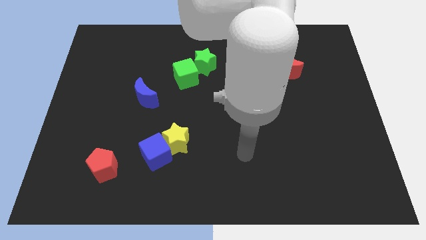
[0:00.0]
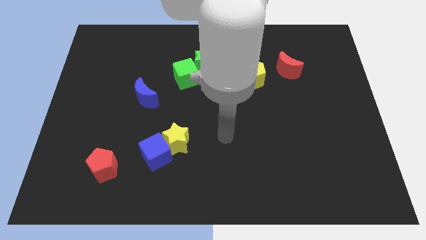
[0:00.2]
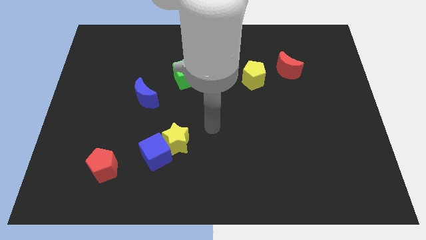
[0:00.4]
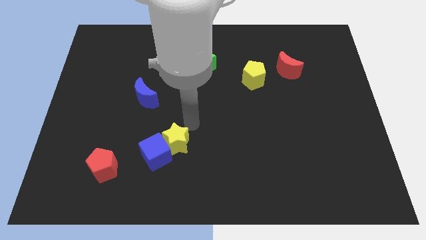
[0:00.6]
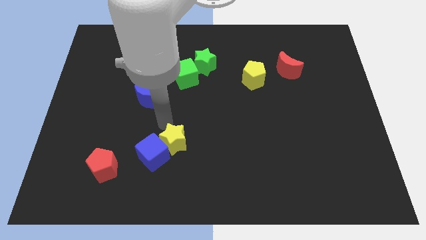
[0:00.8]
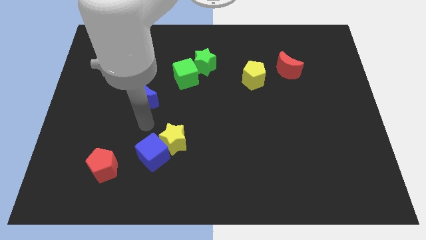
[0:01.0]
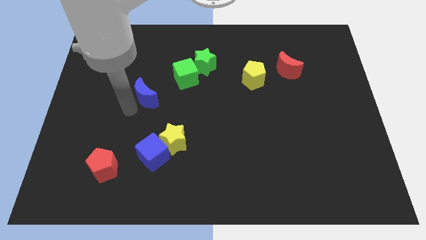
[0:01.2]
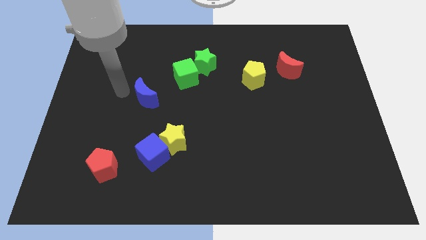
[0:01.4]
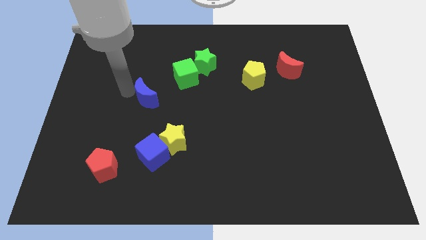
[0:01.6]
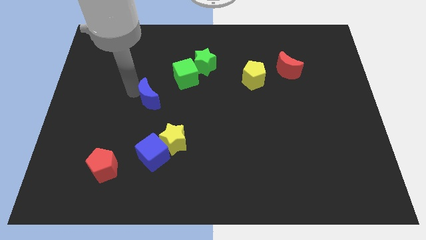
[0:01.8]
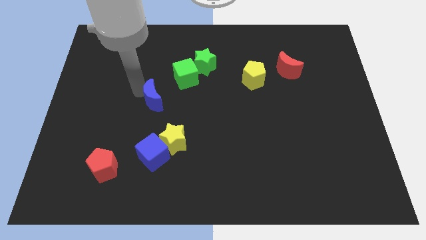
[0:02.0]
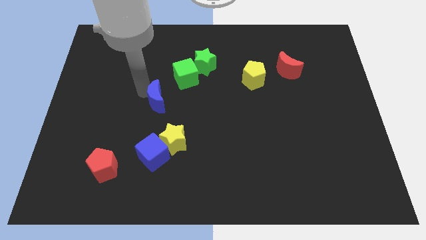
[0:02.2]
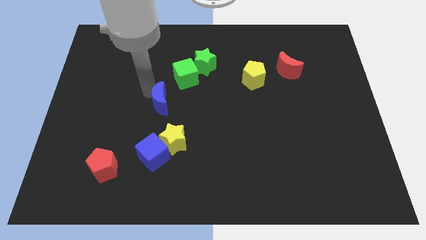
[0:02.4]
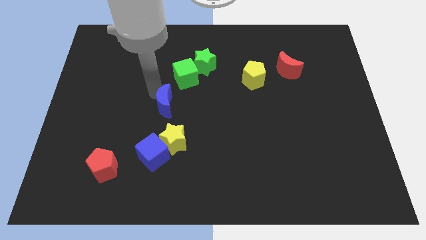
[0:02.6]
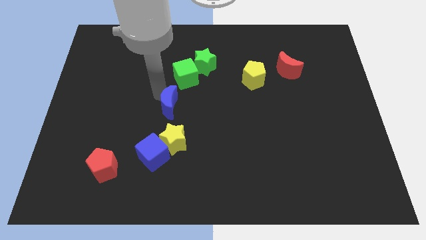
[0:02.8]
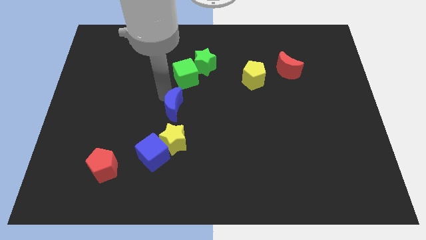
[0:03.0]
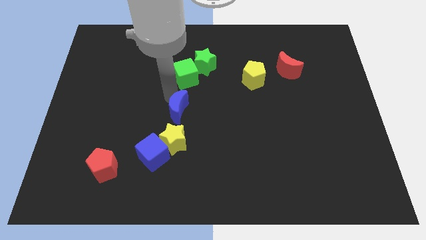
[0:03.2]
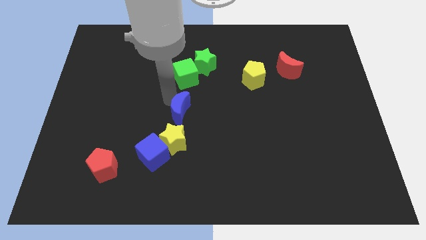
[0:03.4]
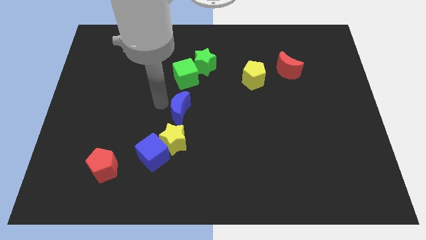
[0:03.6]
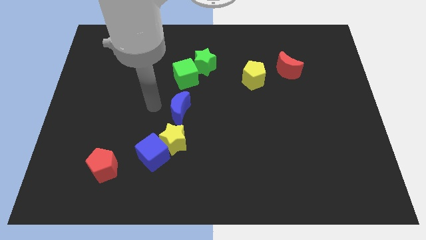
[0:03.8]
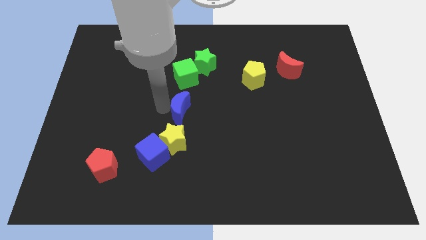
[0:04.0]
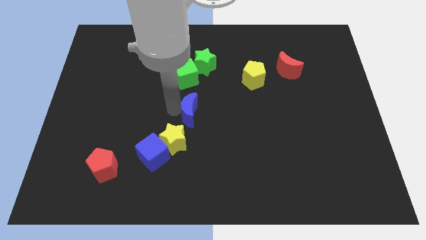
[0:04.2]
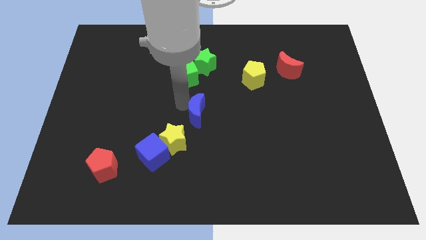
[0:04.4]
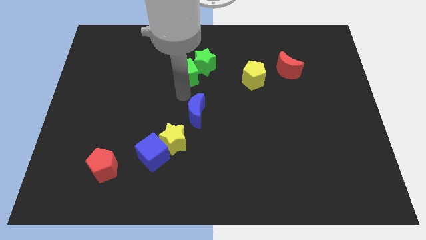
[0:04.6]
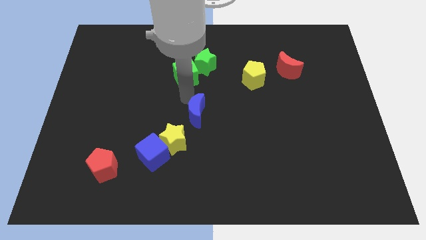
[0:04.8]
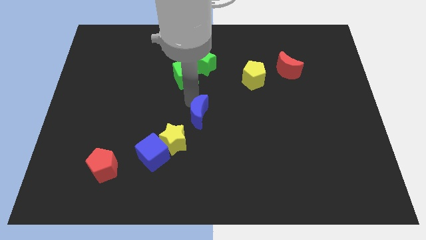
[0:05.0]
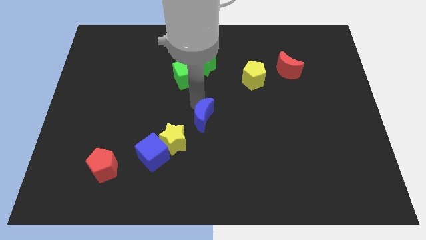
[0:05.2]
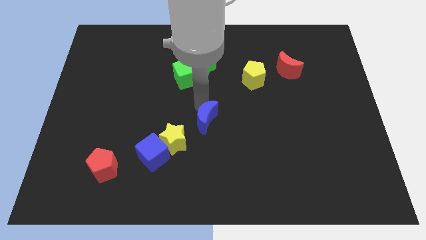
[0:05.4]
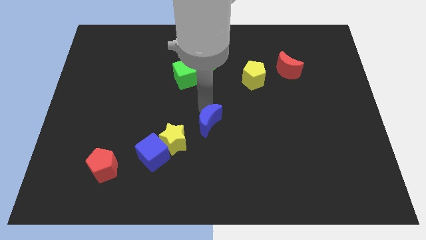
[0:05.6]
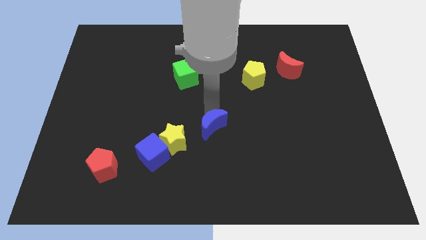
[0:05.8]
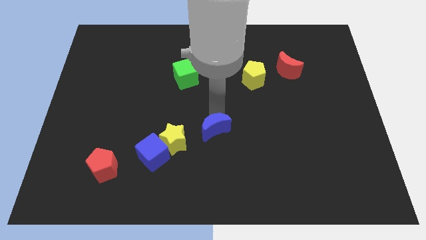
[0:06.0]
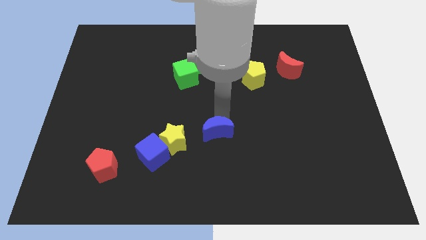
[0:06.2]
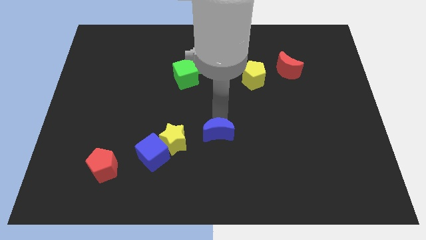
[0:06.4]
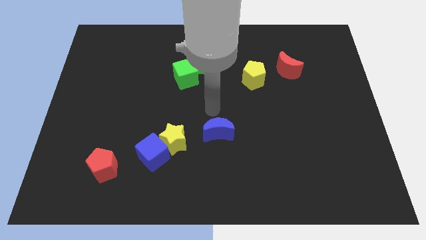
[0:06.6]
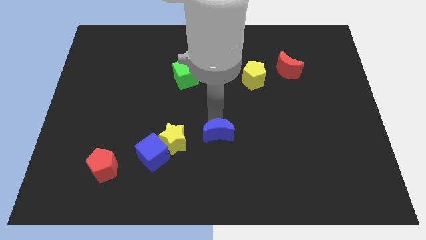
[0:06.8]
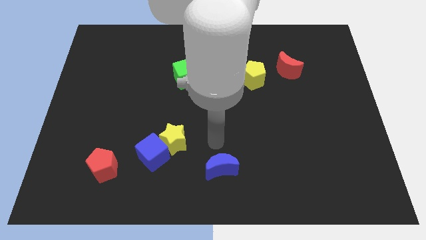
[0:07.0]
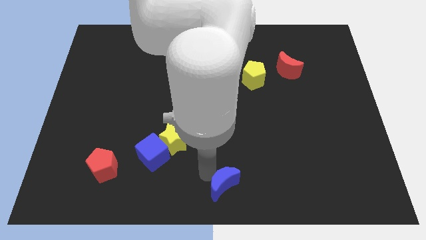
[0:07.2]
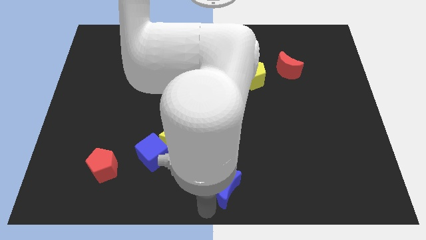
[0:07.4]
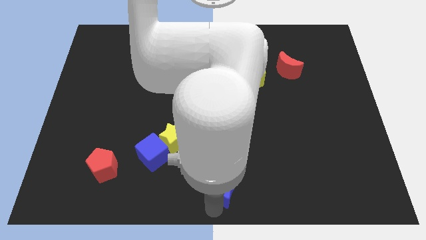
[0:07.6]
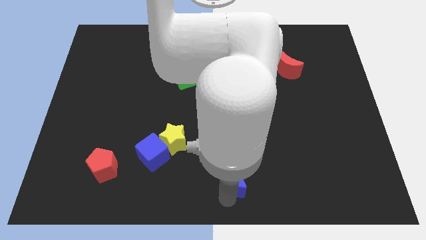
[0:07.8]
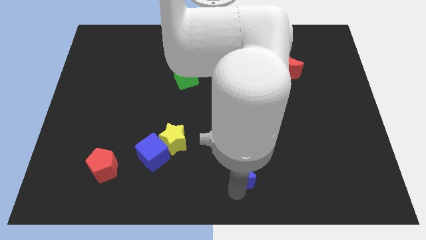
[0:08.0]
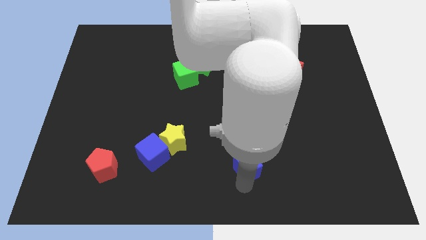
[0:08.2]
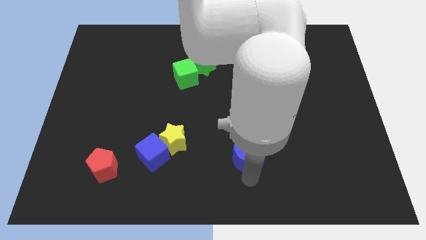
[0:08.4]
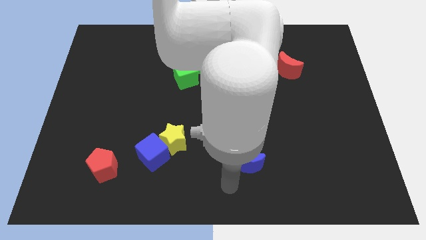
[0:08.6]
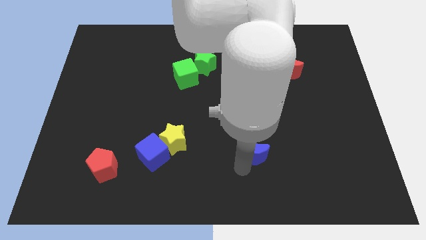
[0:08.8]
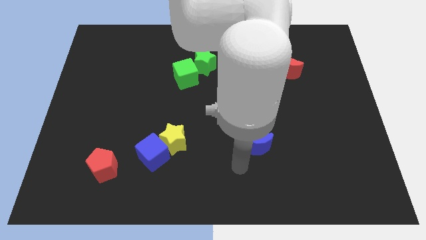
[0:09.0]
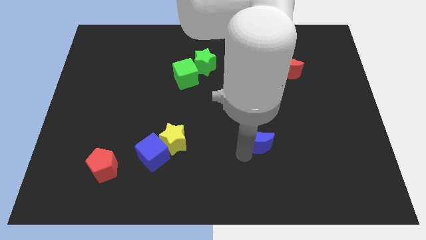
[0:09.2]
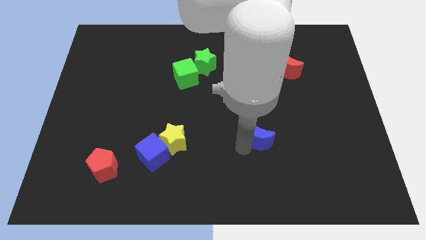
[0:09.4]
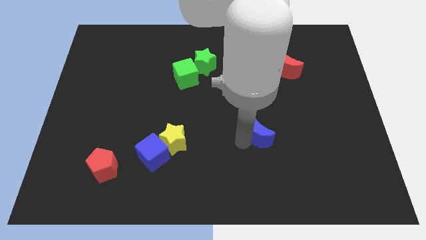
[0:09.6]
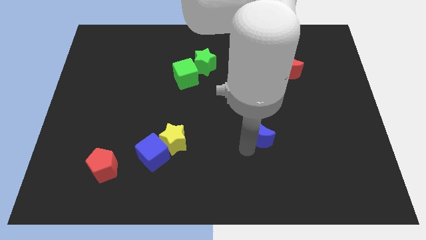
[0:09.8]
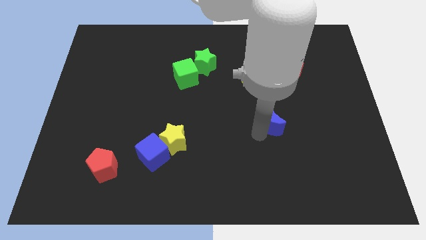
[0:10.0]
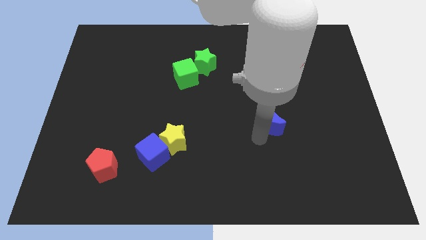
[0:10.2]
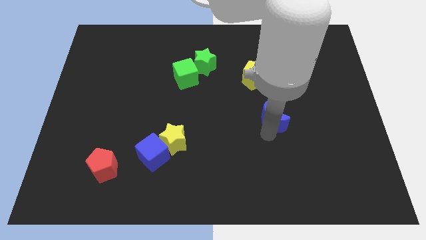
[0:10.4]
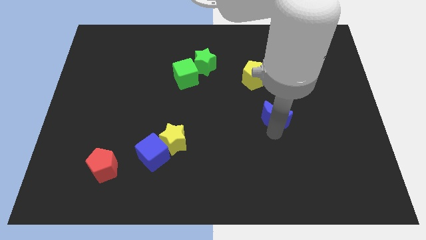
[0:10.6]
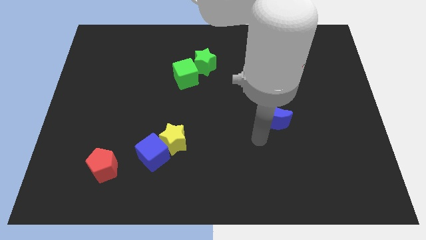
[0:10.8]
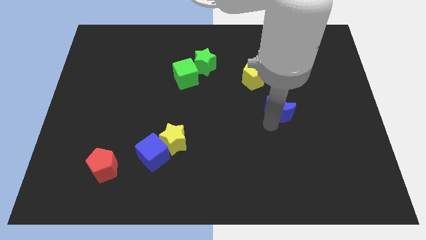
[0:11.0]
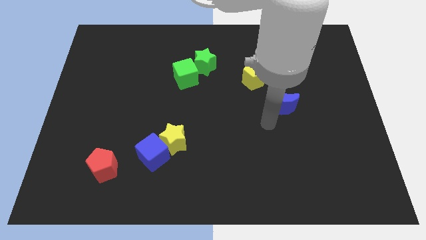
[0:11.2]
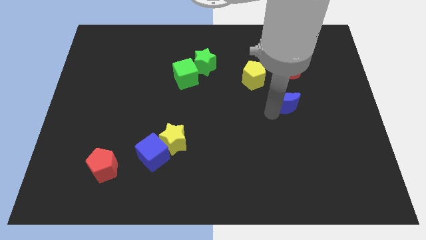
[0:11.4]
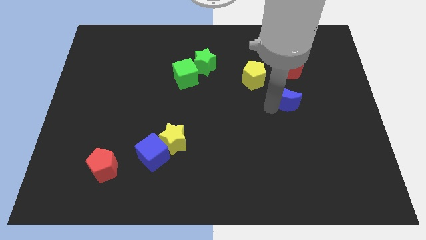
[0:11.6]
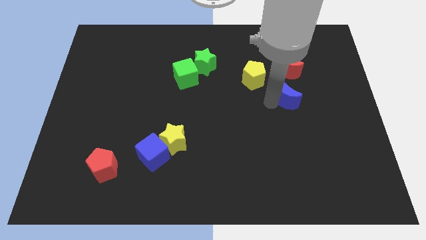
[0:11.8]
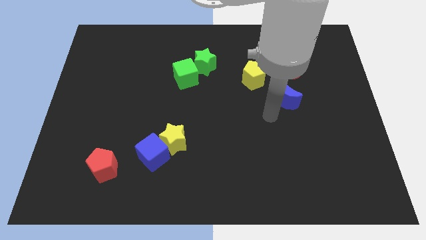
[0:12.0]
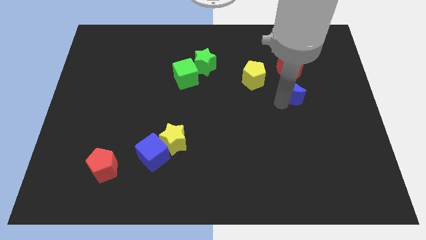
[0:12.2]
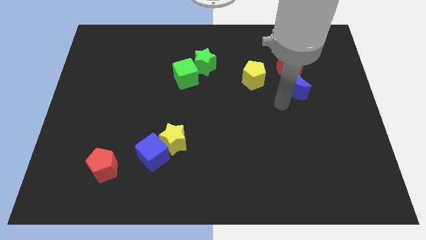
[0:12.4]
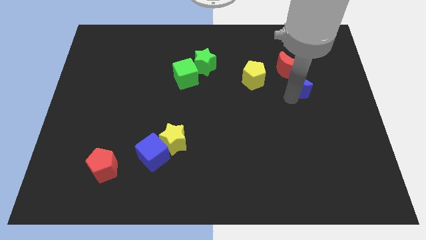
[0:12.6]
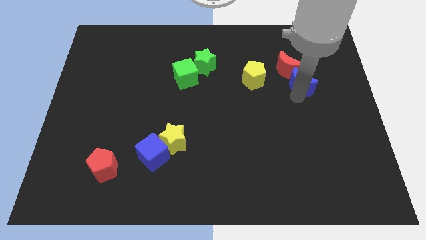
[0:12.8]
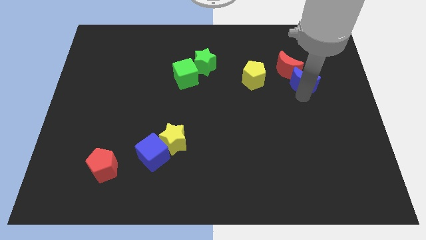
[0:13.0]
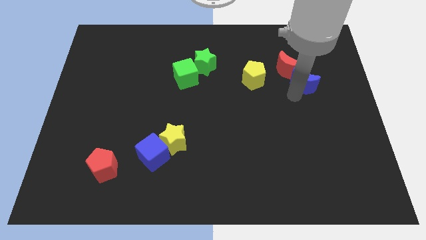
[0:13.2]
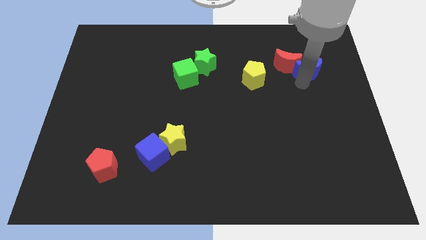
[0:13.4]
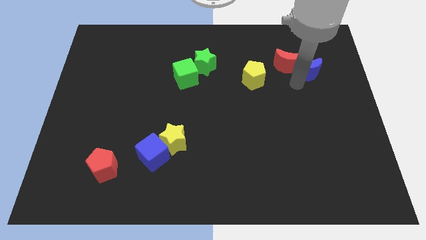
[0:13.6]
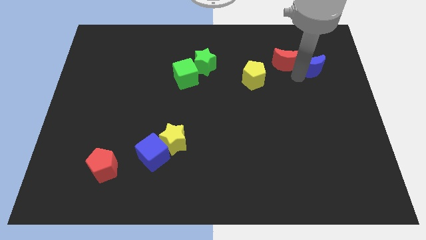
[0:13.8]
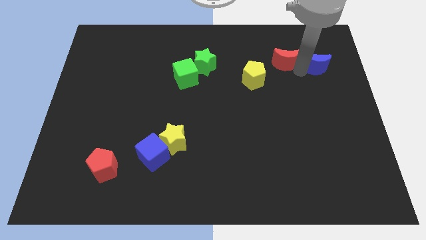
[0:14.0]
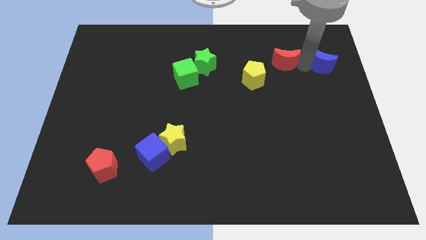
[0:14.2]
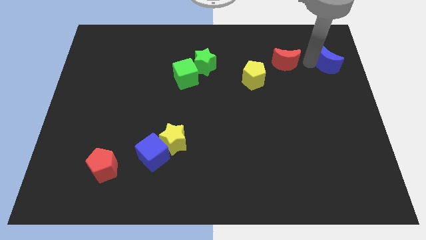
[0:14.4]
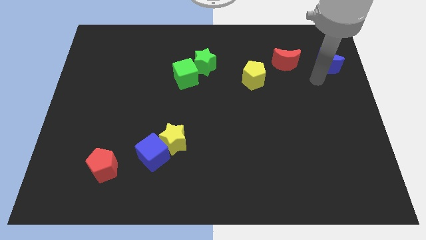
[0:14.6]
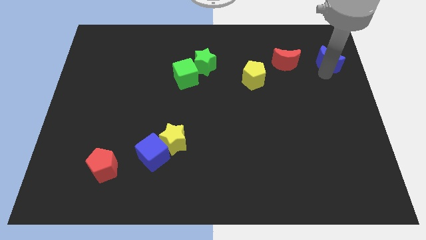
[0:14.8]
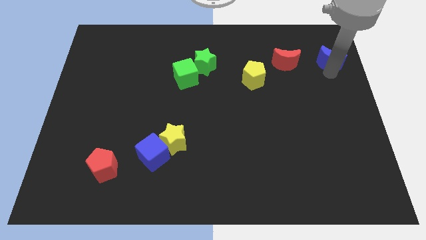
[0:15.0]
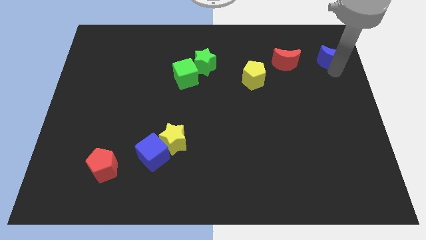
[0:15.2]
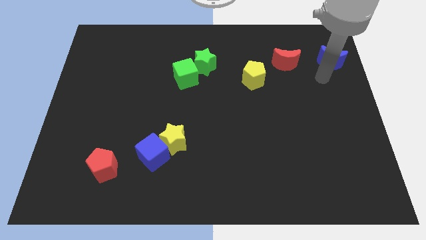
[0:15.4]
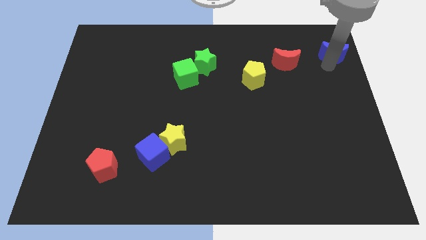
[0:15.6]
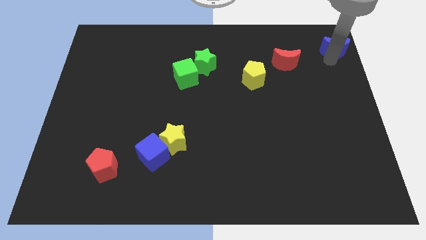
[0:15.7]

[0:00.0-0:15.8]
slide the blue moon to the upper right corner
